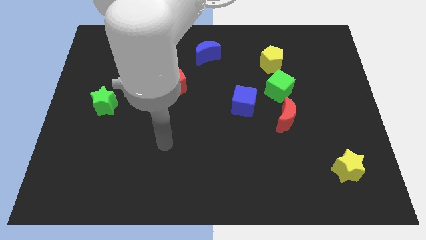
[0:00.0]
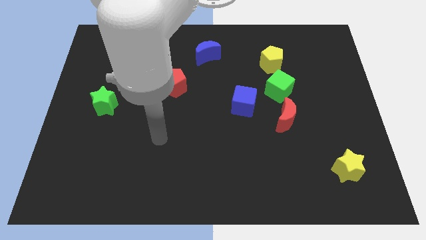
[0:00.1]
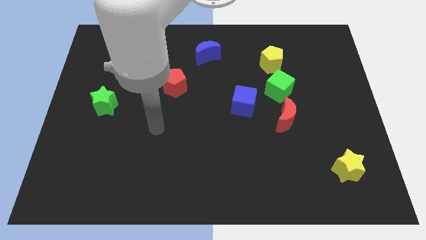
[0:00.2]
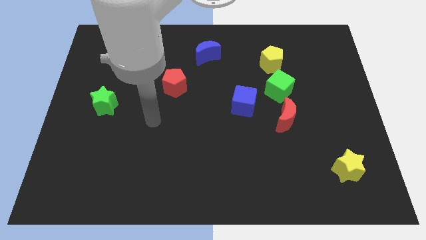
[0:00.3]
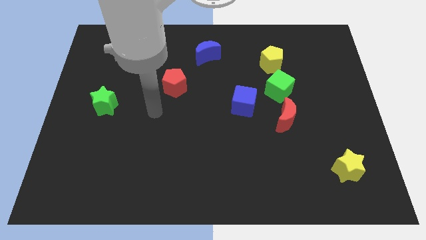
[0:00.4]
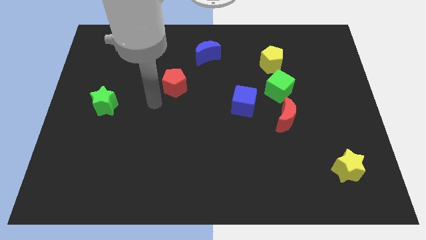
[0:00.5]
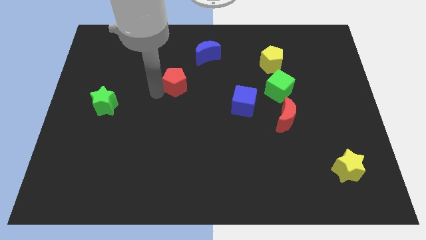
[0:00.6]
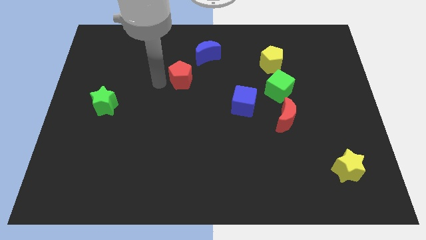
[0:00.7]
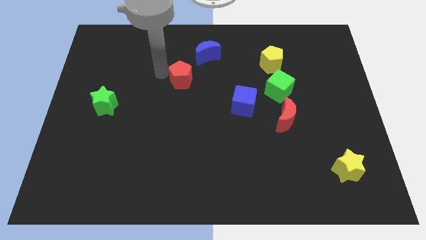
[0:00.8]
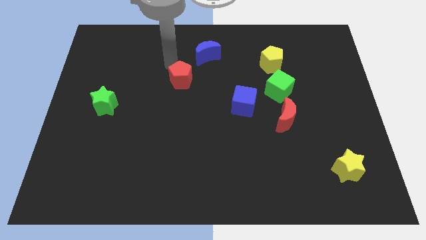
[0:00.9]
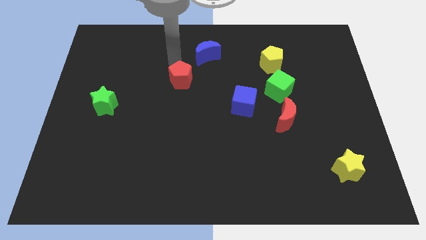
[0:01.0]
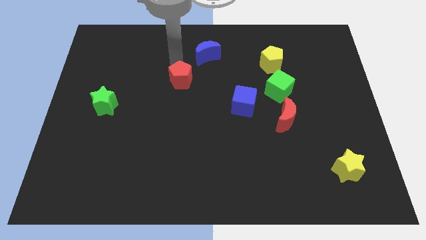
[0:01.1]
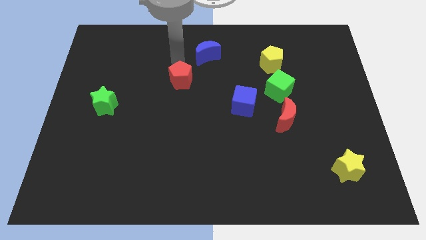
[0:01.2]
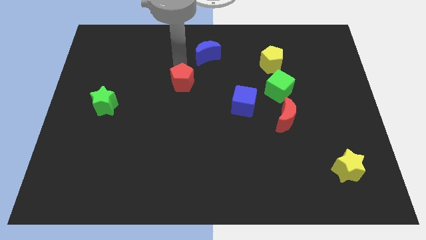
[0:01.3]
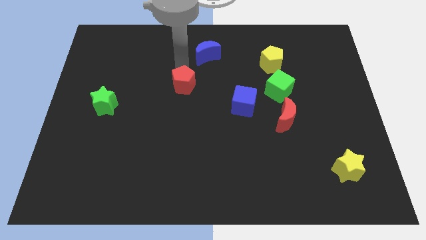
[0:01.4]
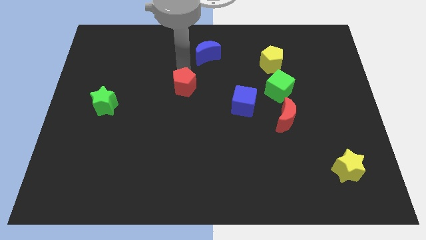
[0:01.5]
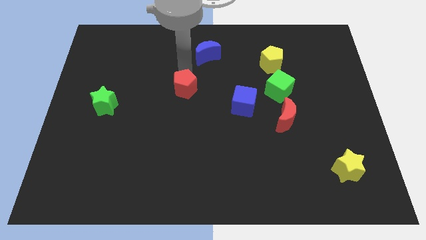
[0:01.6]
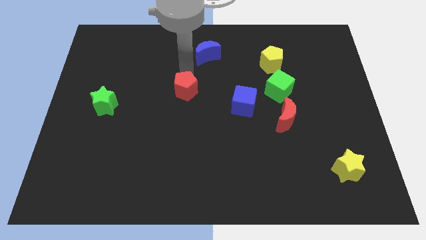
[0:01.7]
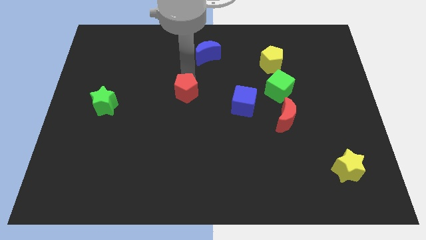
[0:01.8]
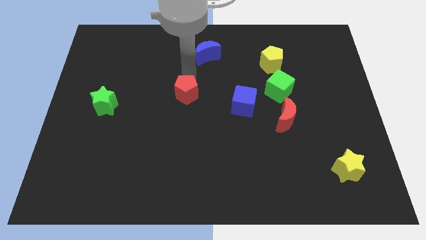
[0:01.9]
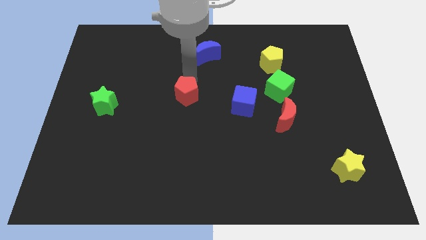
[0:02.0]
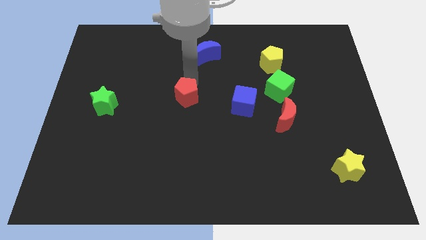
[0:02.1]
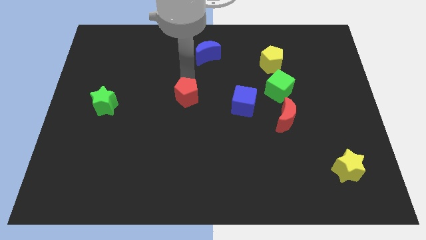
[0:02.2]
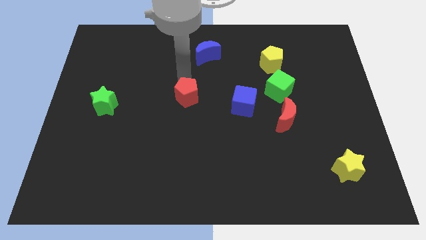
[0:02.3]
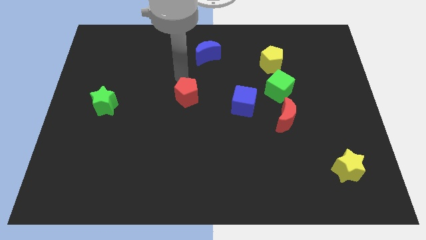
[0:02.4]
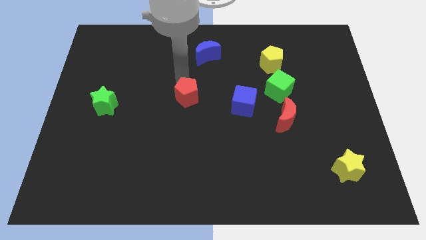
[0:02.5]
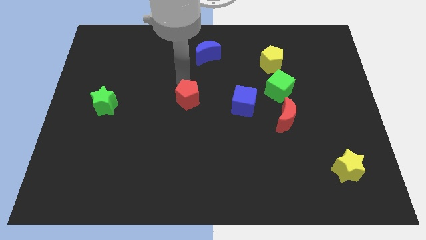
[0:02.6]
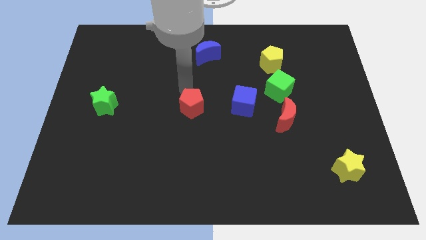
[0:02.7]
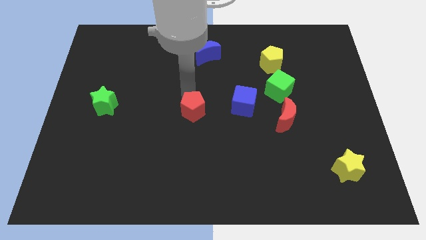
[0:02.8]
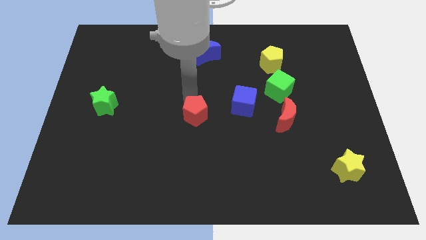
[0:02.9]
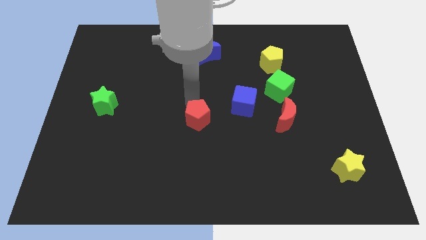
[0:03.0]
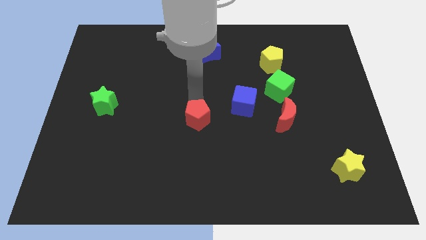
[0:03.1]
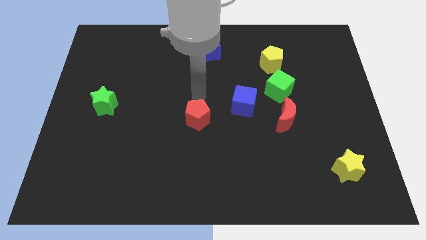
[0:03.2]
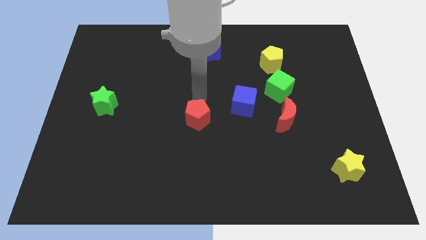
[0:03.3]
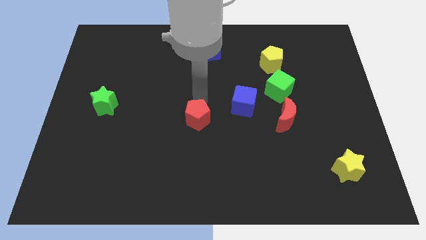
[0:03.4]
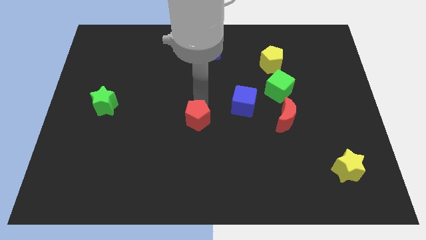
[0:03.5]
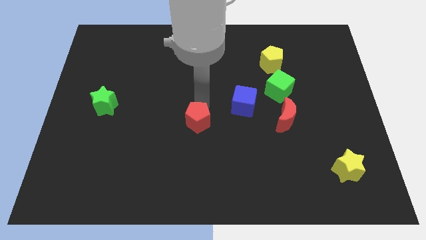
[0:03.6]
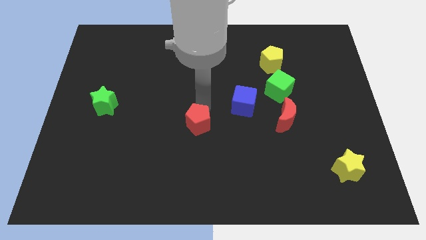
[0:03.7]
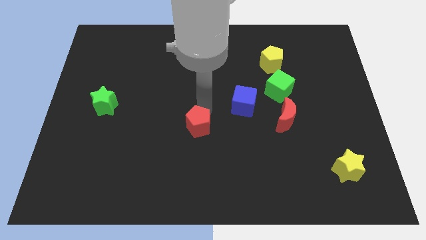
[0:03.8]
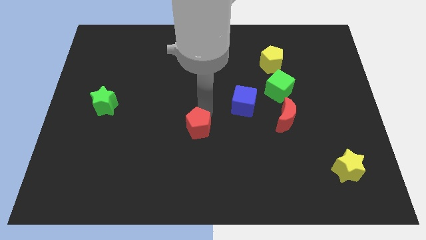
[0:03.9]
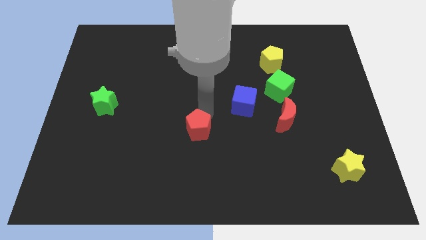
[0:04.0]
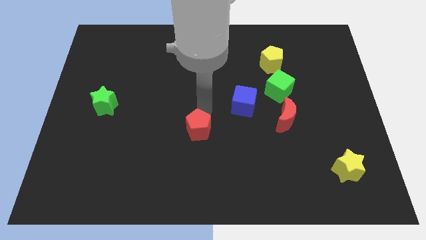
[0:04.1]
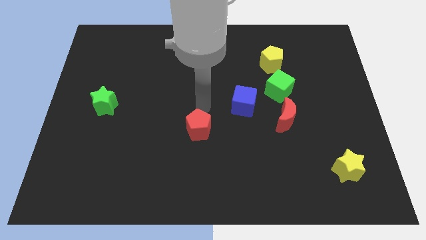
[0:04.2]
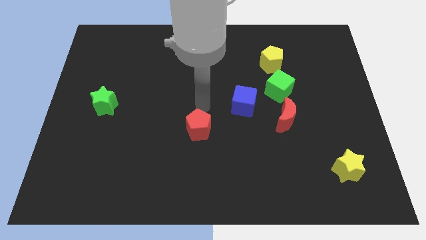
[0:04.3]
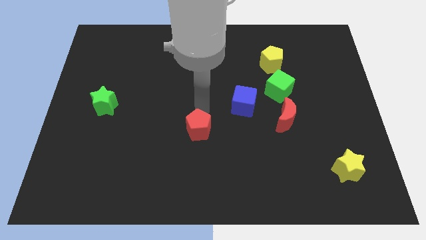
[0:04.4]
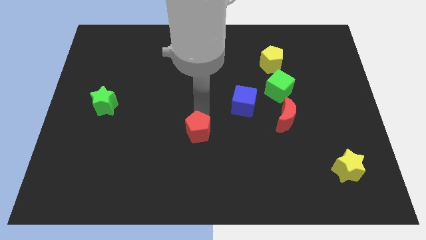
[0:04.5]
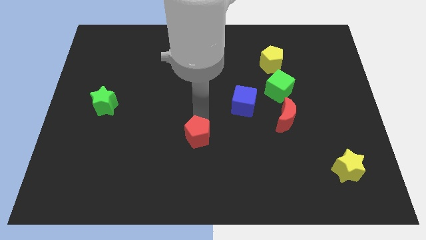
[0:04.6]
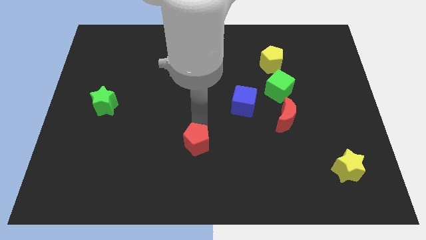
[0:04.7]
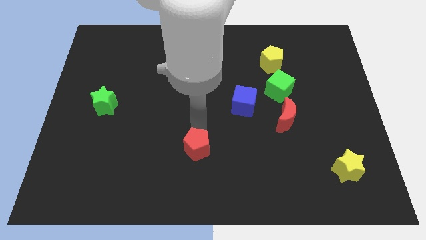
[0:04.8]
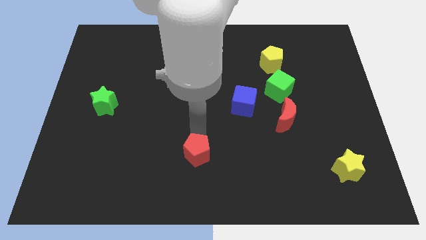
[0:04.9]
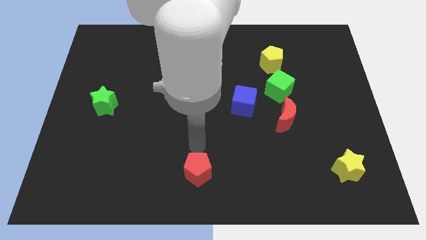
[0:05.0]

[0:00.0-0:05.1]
put the red pentagon to the bottom

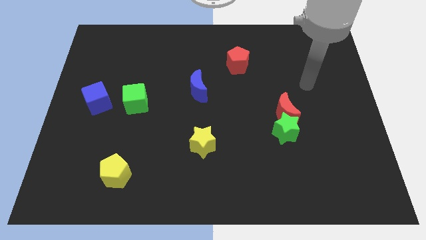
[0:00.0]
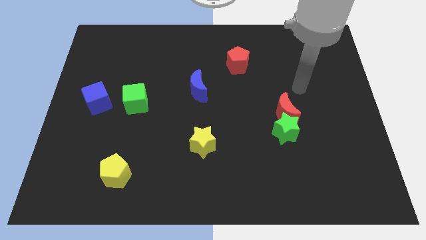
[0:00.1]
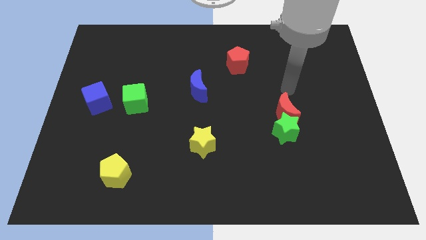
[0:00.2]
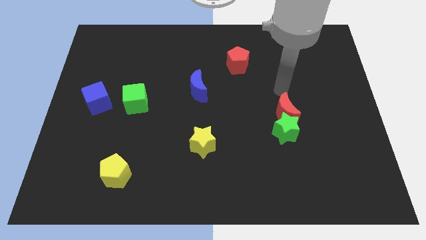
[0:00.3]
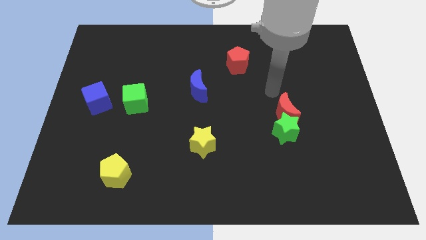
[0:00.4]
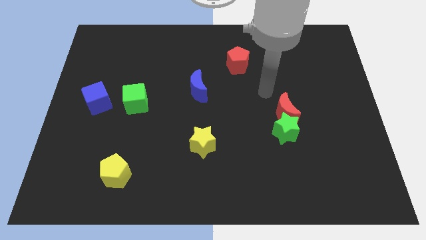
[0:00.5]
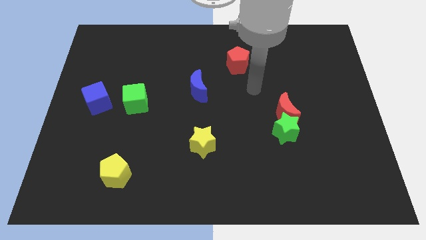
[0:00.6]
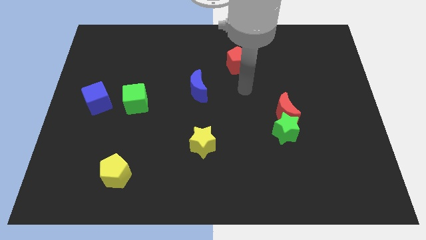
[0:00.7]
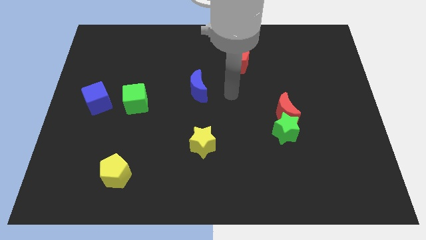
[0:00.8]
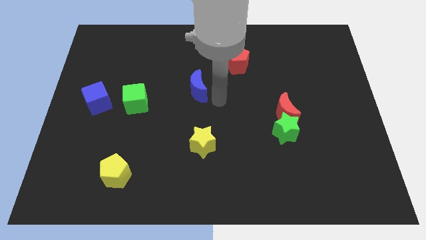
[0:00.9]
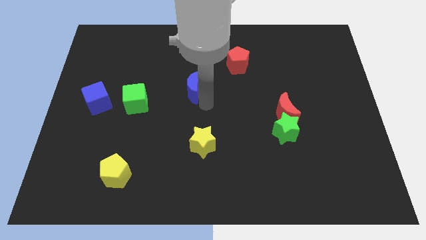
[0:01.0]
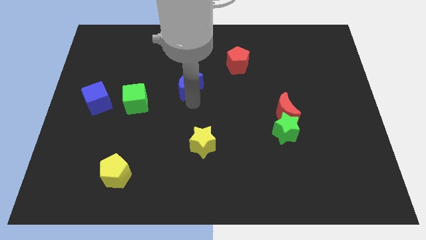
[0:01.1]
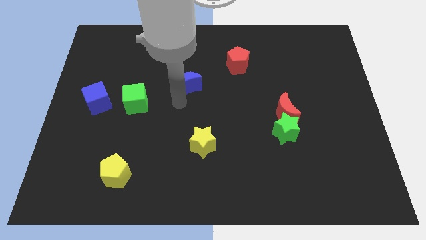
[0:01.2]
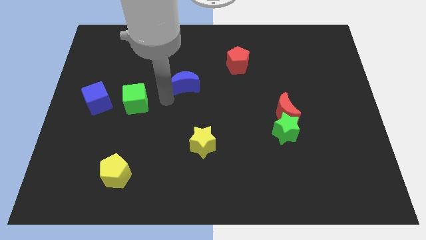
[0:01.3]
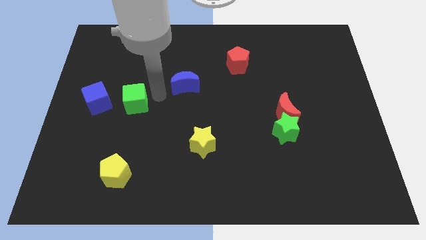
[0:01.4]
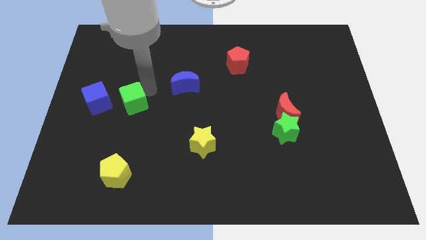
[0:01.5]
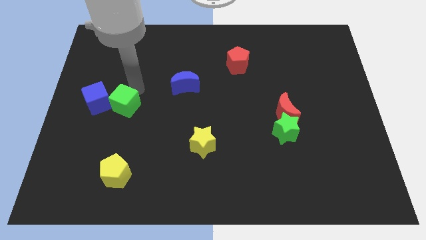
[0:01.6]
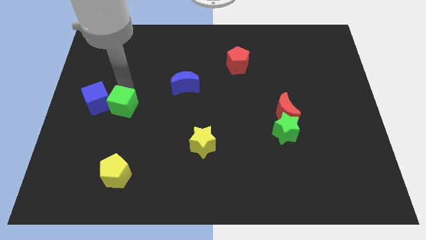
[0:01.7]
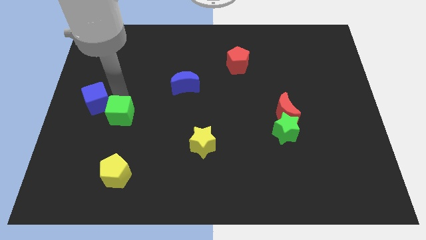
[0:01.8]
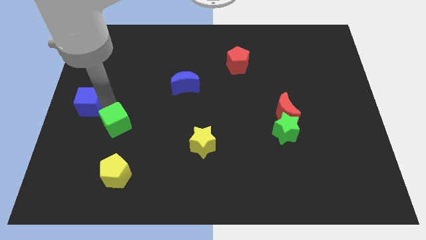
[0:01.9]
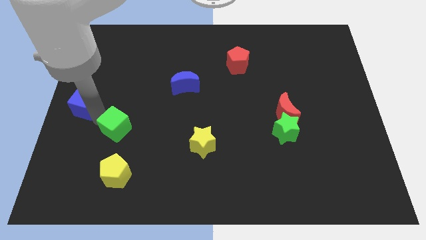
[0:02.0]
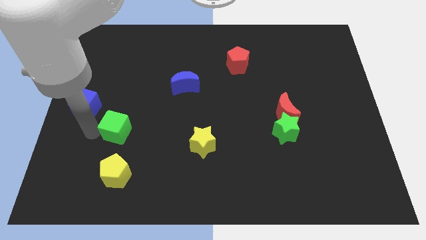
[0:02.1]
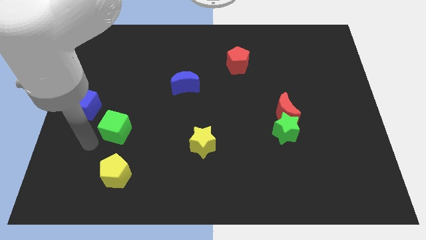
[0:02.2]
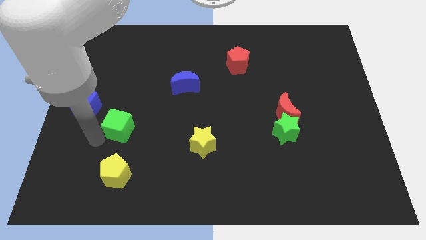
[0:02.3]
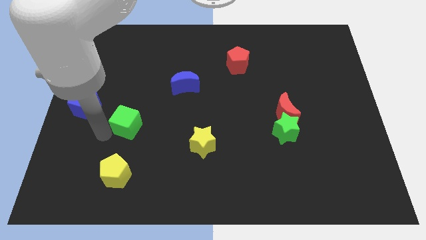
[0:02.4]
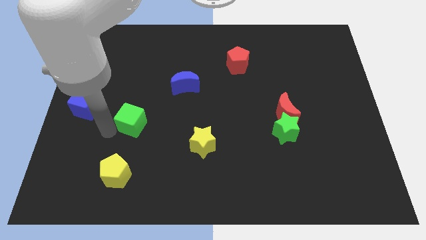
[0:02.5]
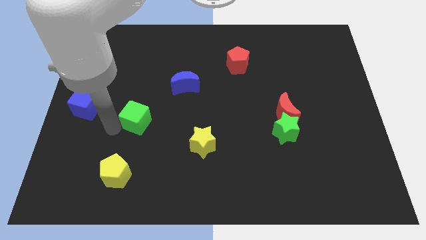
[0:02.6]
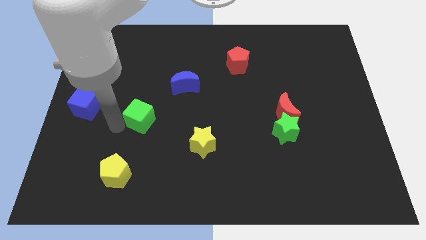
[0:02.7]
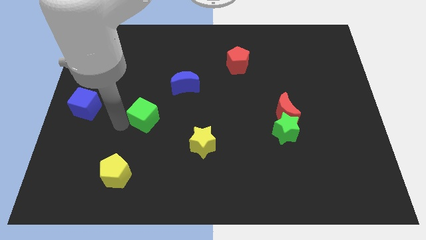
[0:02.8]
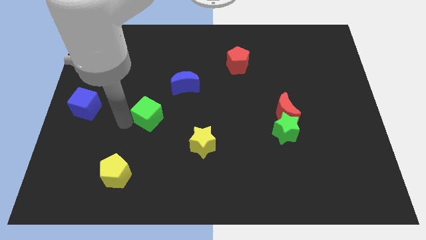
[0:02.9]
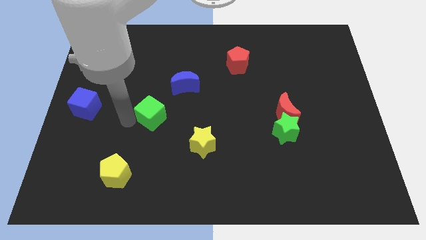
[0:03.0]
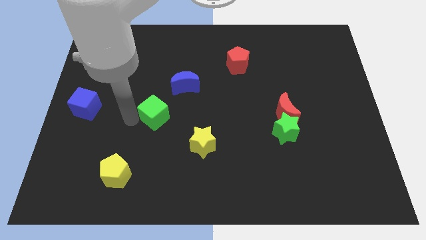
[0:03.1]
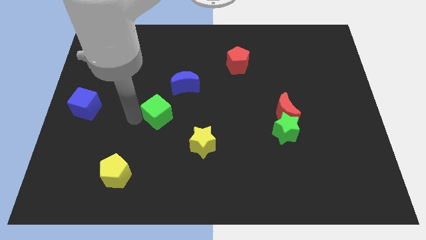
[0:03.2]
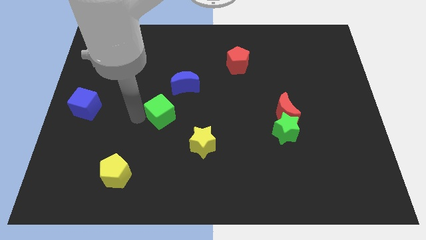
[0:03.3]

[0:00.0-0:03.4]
push the green cube to the center
